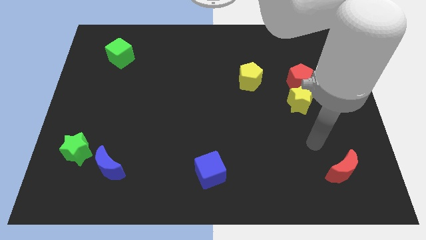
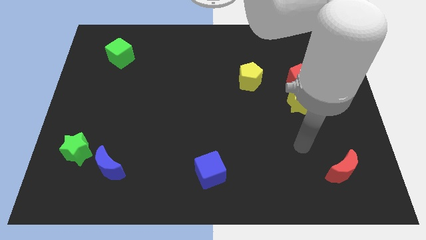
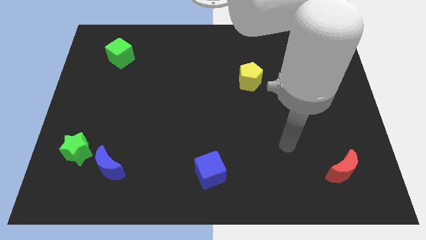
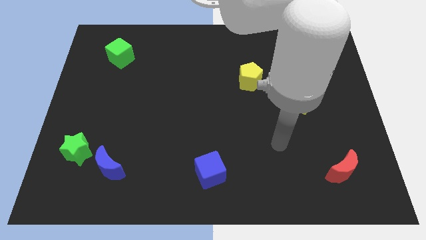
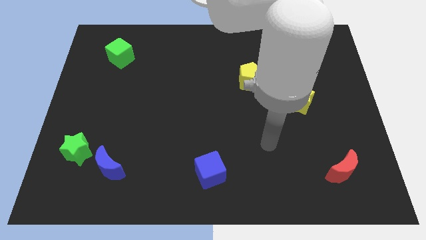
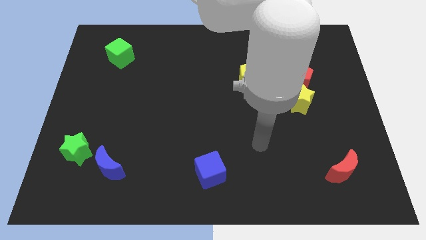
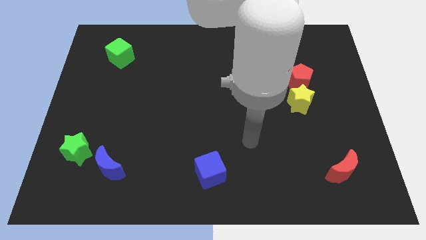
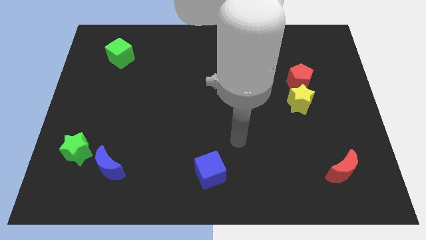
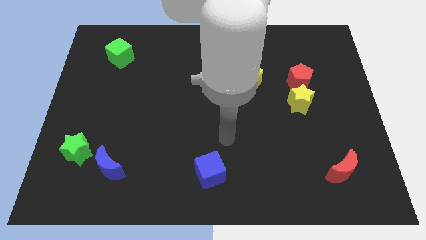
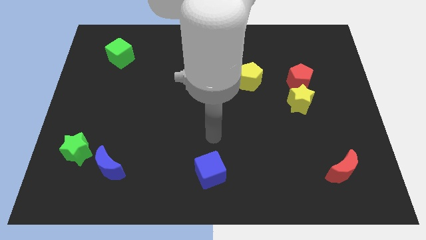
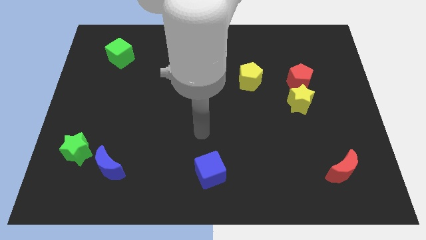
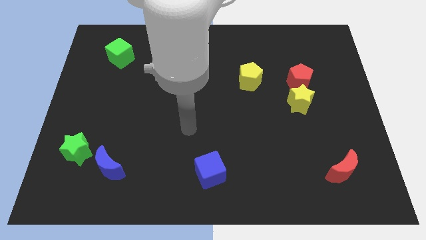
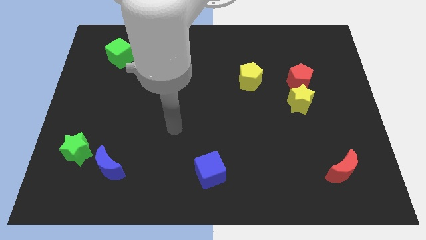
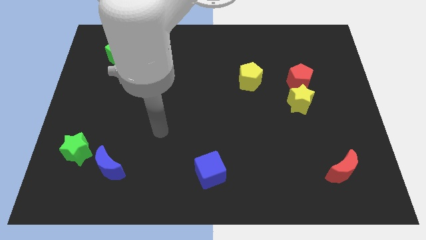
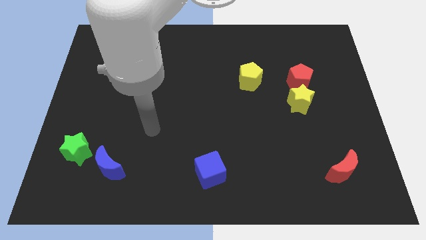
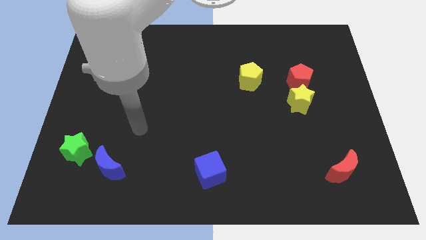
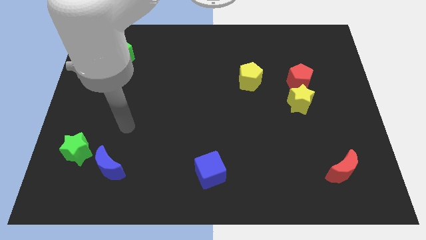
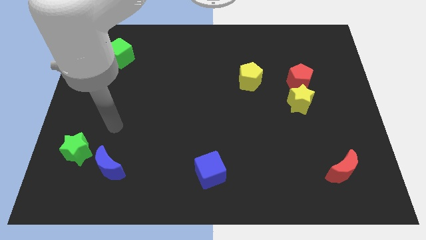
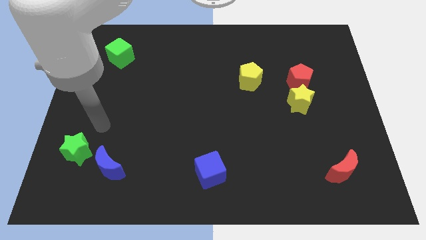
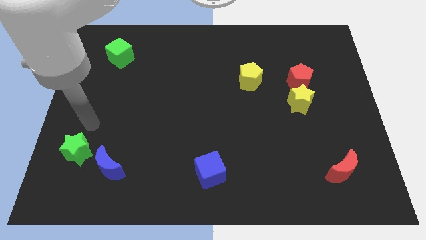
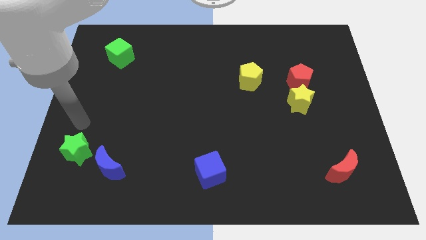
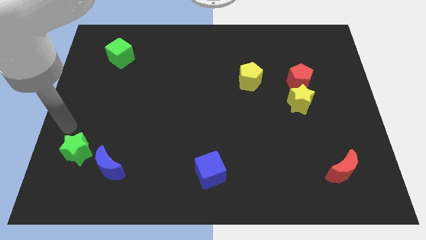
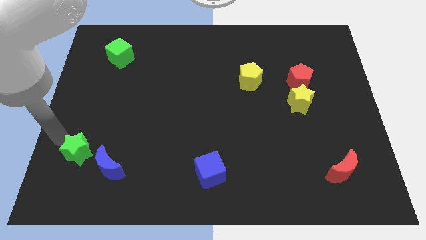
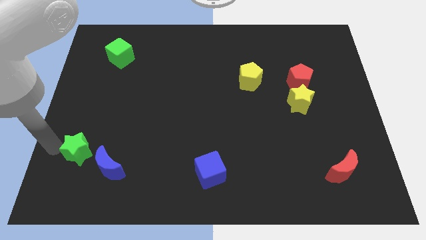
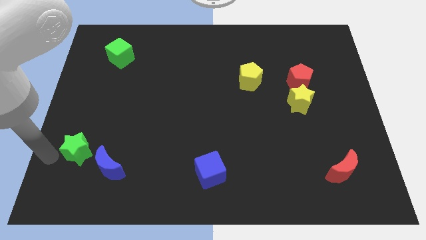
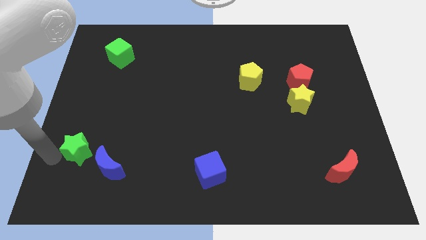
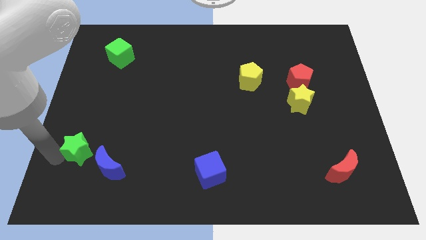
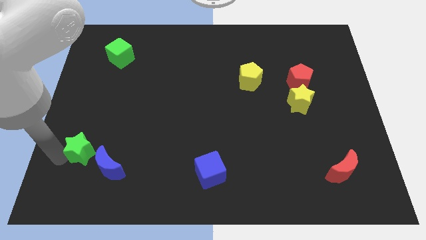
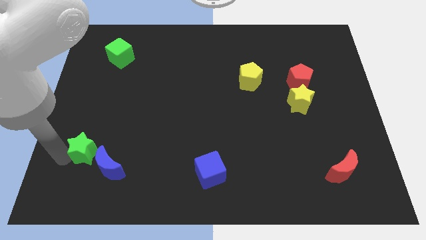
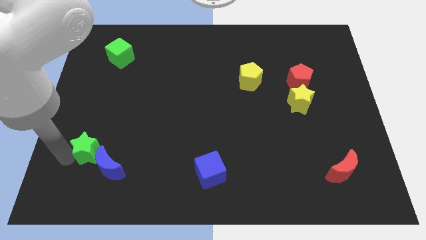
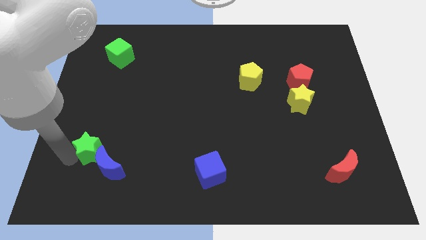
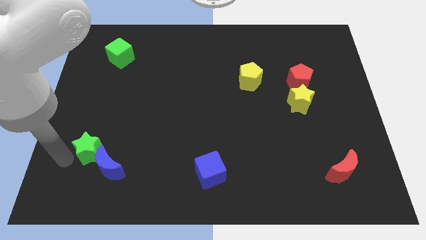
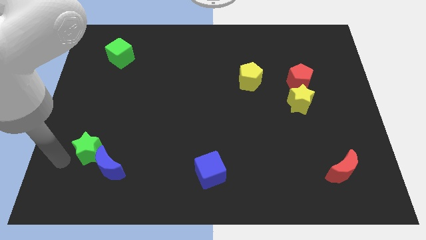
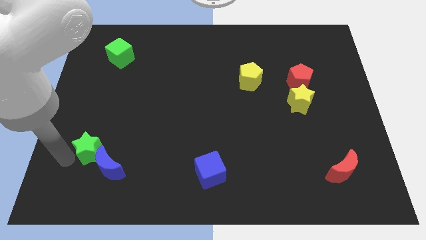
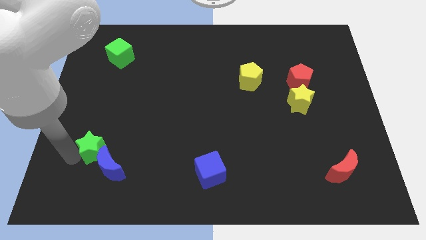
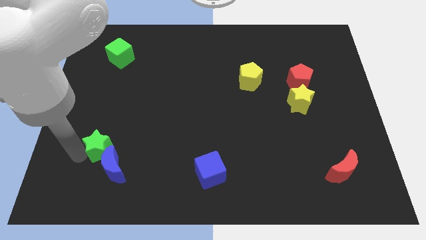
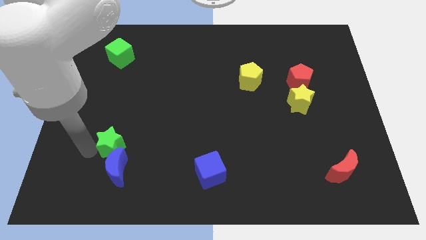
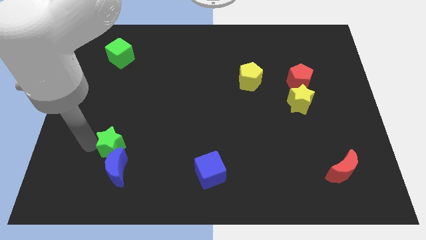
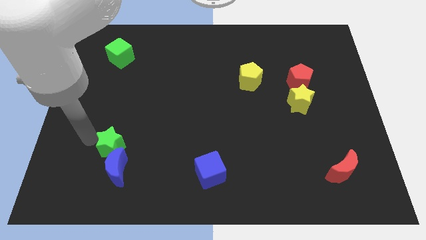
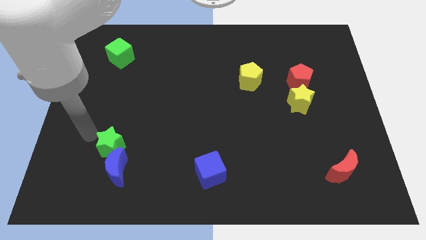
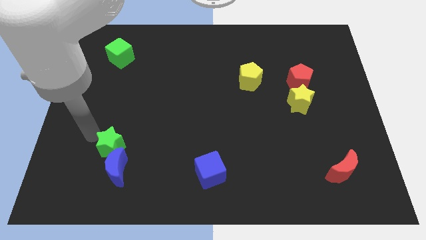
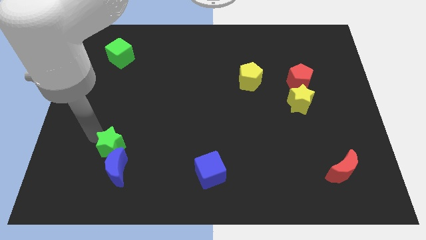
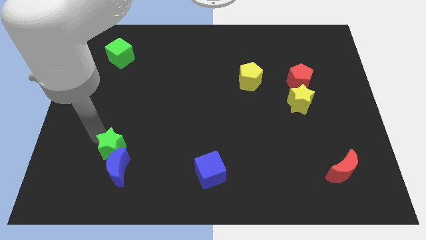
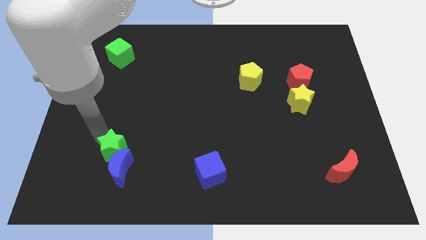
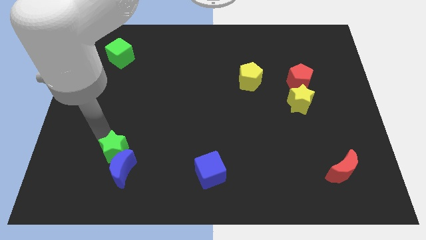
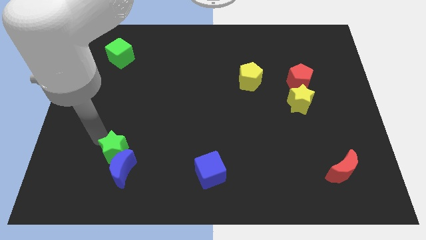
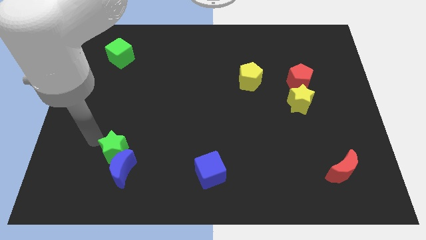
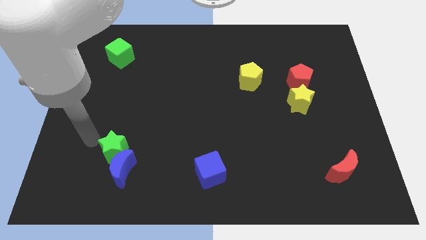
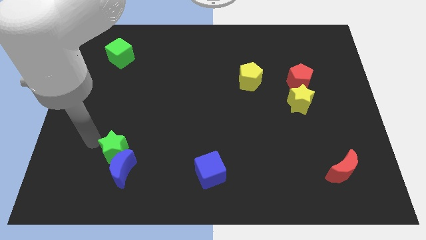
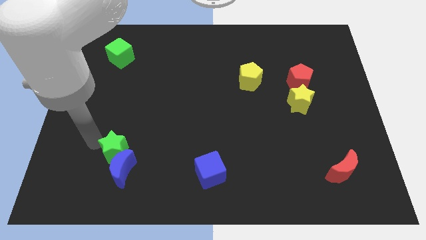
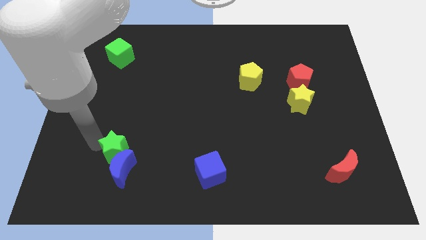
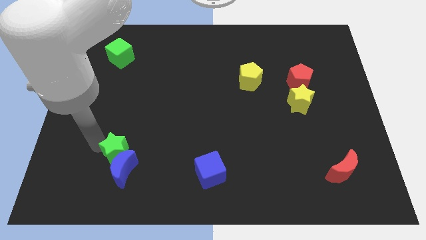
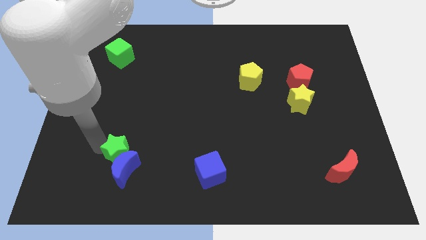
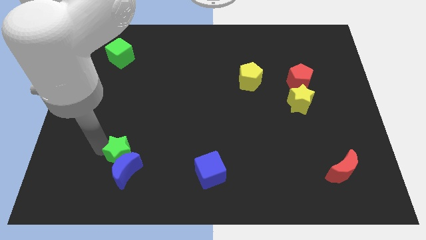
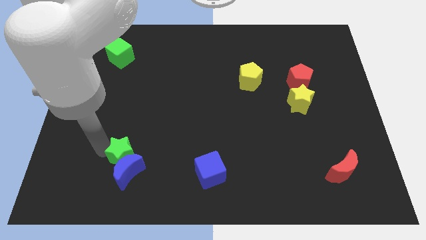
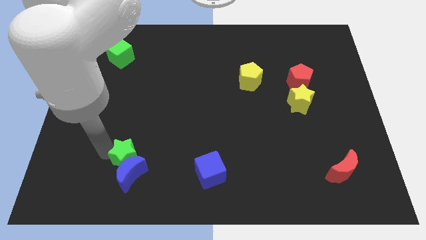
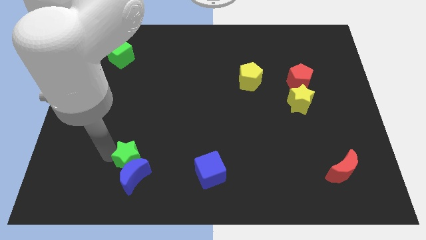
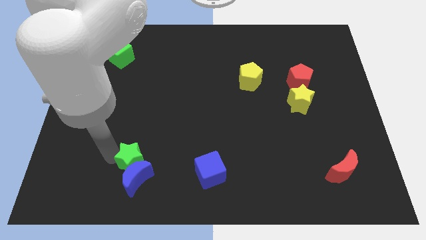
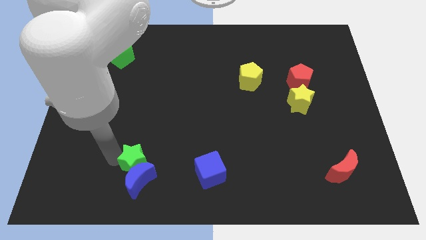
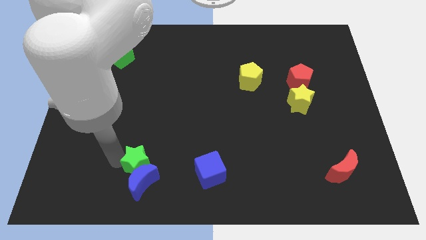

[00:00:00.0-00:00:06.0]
push the green star just left of the blue cube

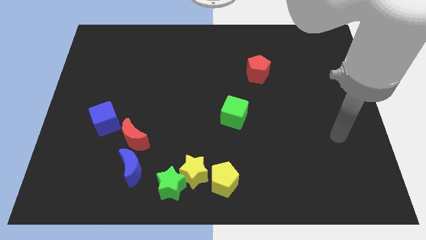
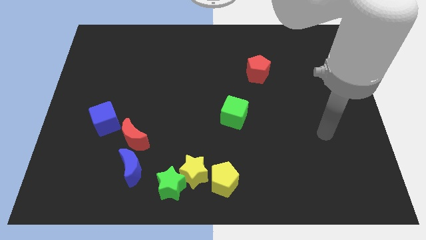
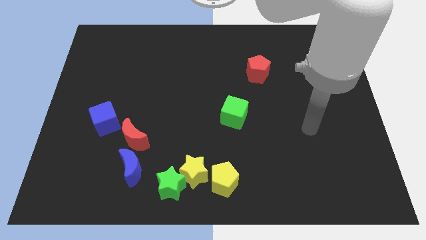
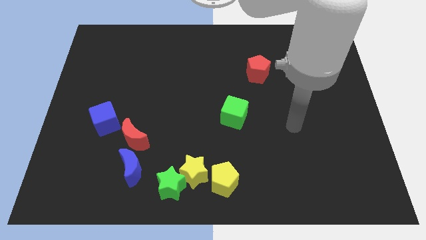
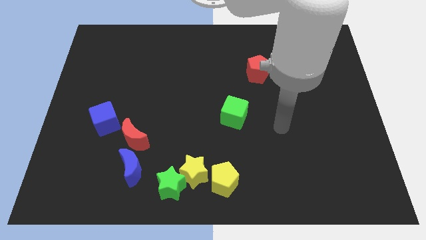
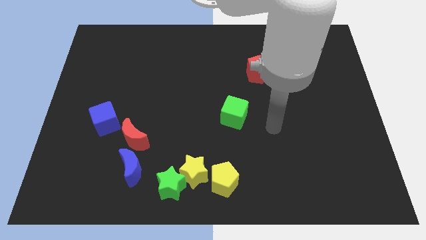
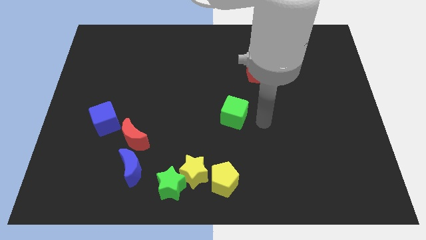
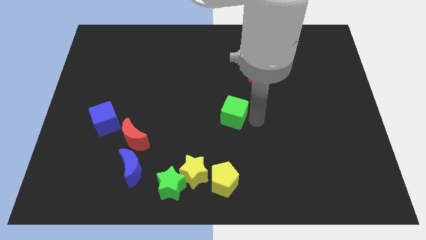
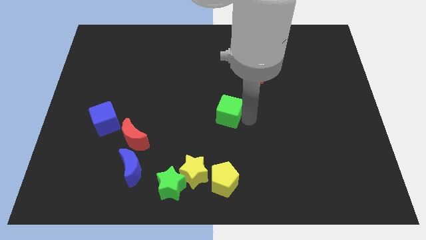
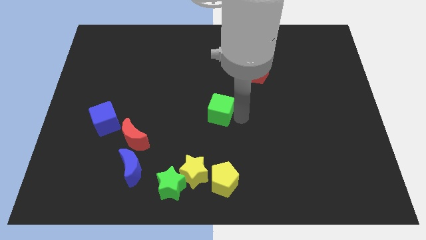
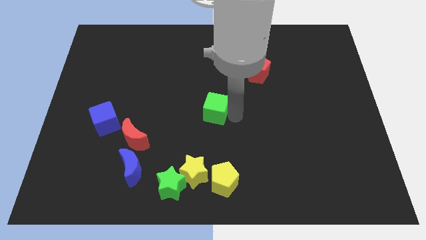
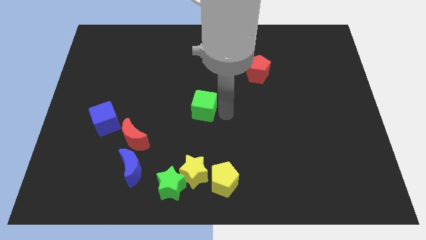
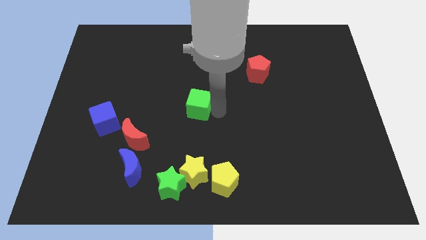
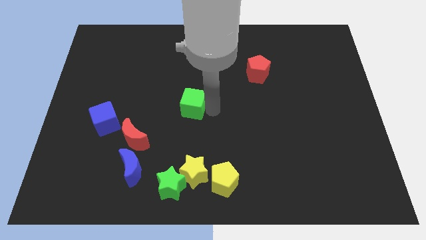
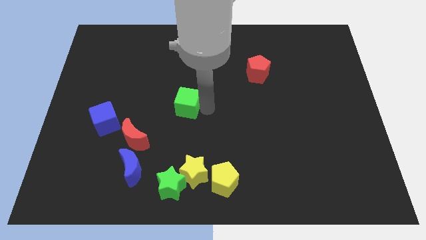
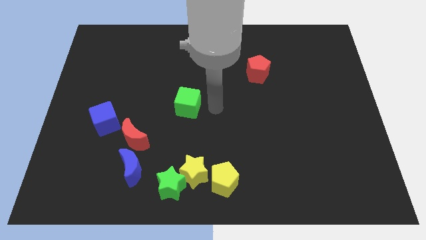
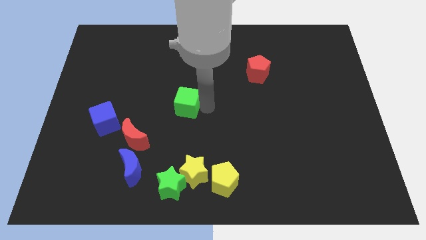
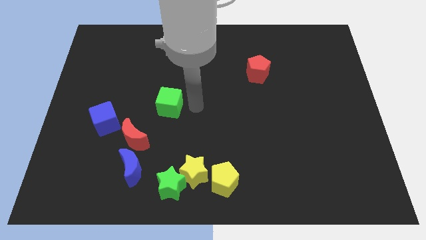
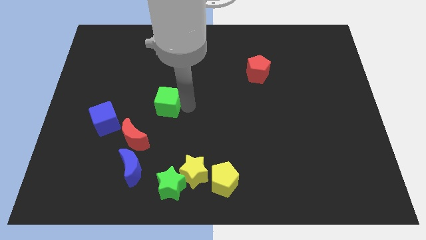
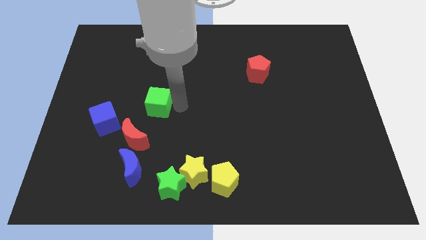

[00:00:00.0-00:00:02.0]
slide the green cube to the top side of the red moon
